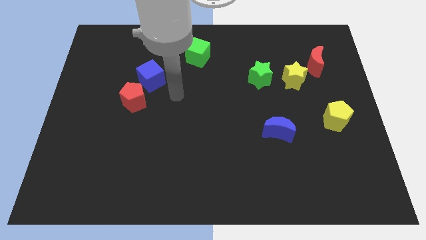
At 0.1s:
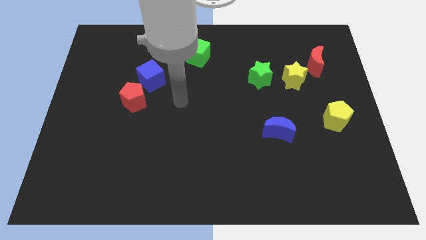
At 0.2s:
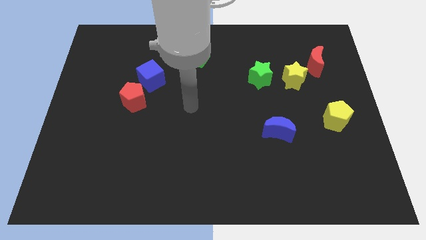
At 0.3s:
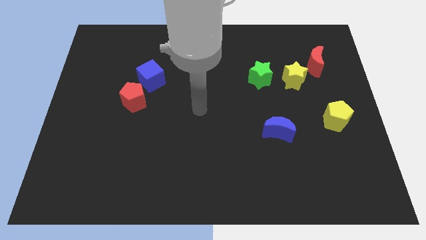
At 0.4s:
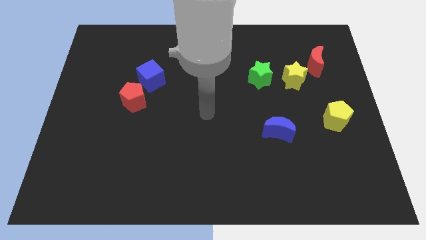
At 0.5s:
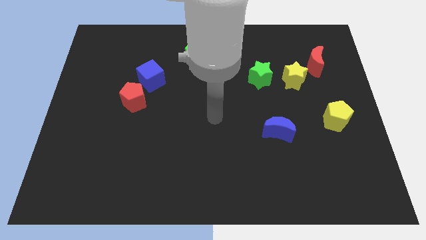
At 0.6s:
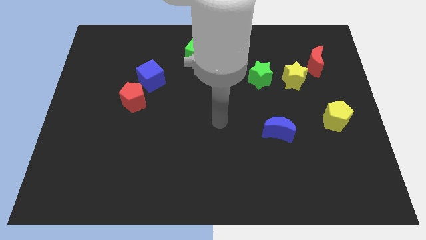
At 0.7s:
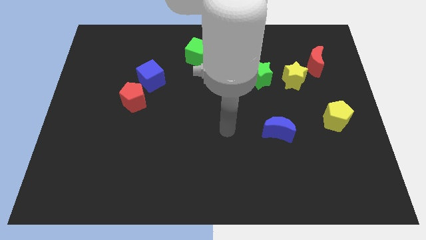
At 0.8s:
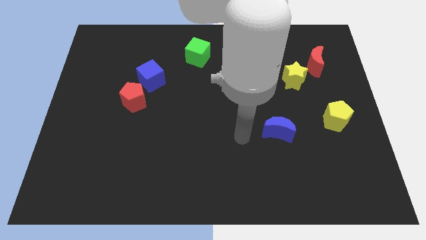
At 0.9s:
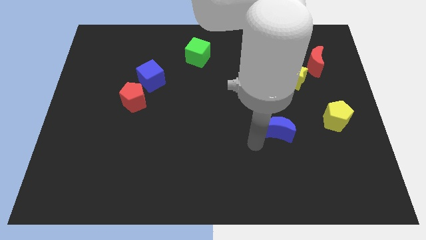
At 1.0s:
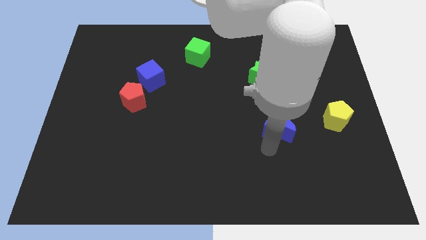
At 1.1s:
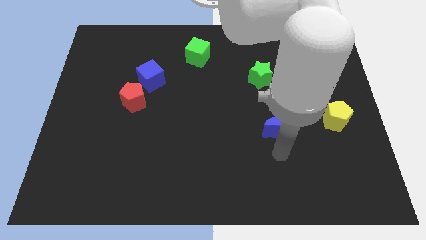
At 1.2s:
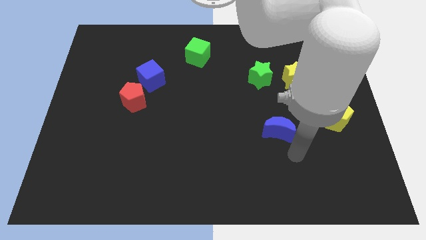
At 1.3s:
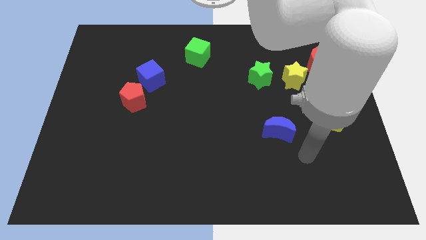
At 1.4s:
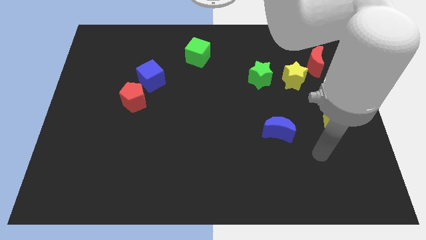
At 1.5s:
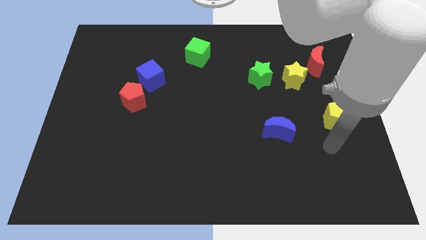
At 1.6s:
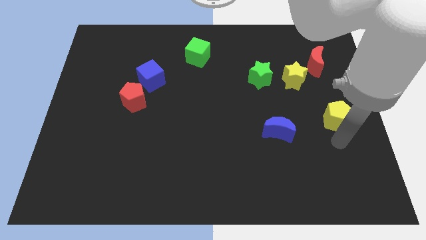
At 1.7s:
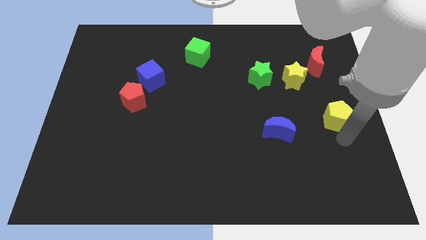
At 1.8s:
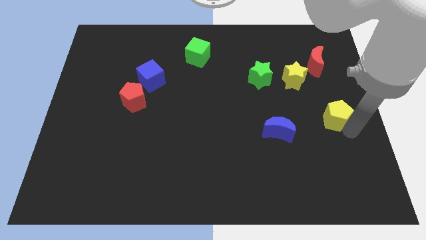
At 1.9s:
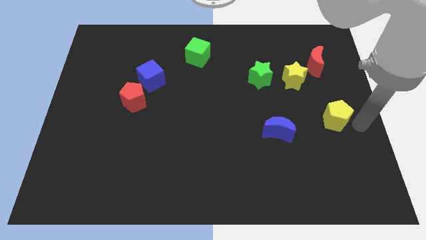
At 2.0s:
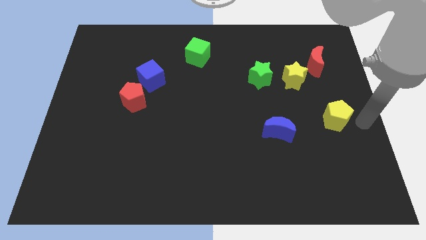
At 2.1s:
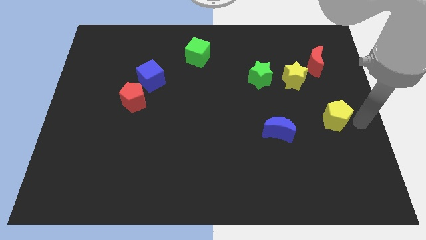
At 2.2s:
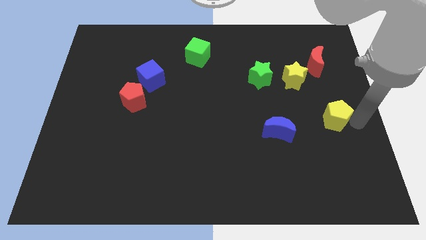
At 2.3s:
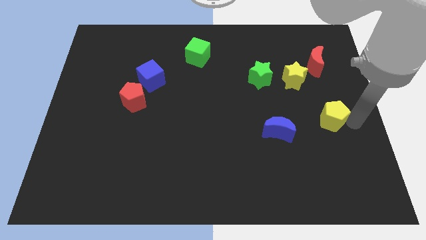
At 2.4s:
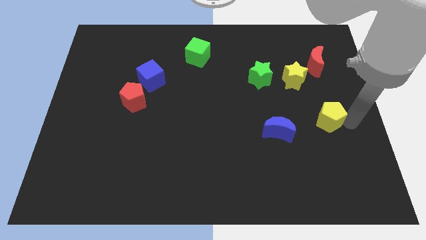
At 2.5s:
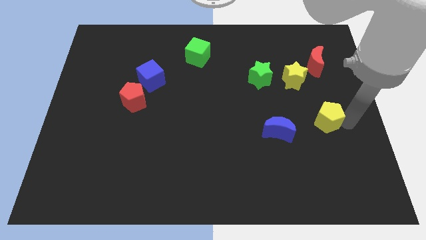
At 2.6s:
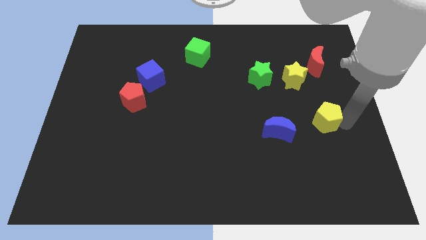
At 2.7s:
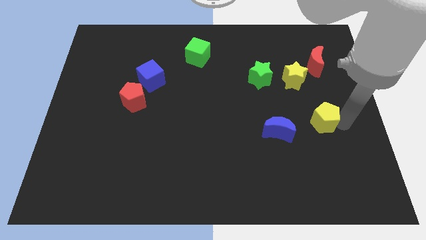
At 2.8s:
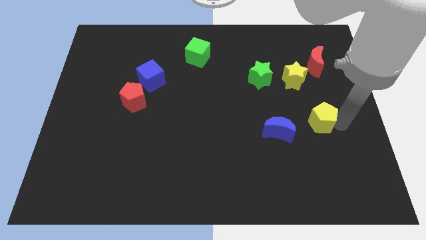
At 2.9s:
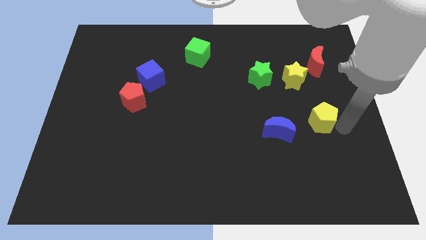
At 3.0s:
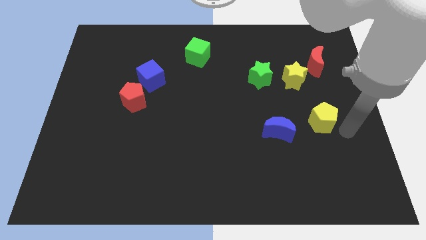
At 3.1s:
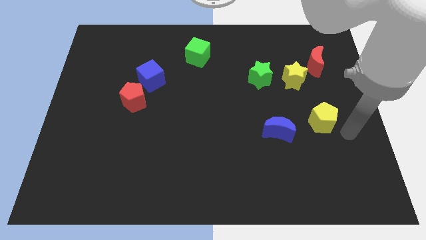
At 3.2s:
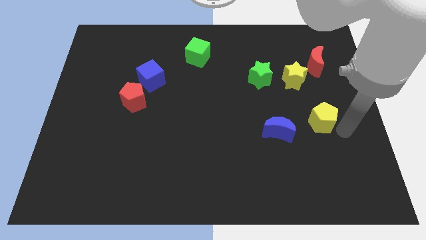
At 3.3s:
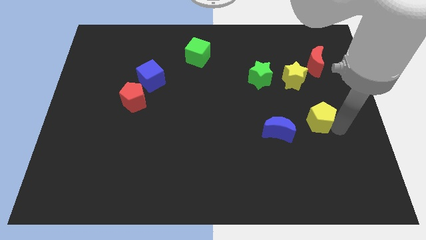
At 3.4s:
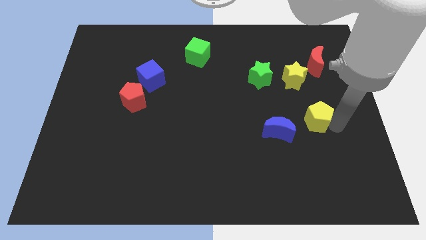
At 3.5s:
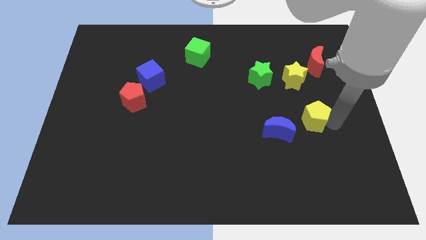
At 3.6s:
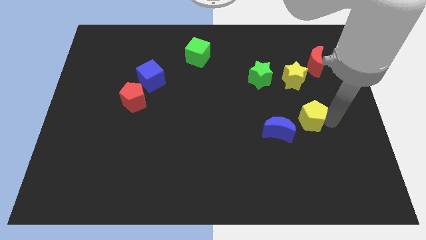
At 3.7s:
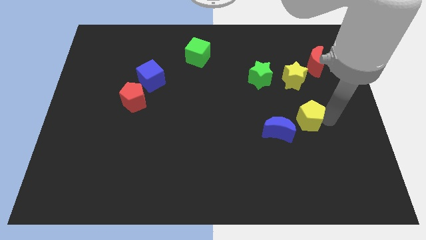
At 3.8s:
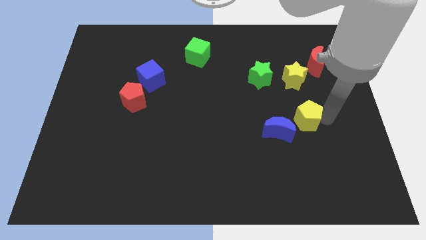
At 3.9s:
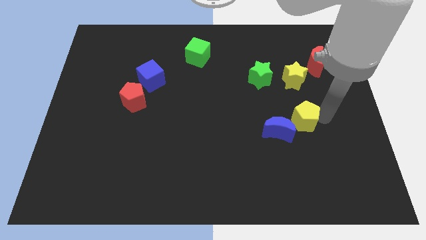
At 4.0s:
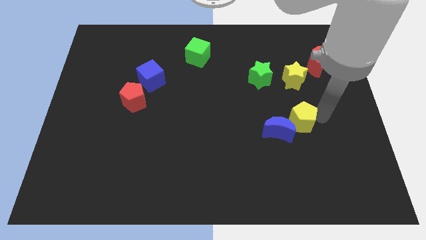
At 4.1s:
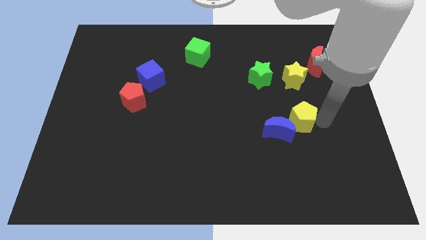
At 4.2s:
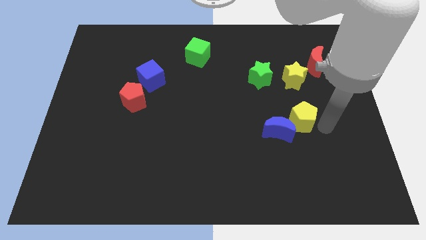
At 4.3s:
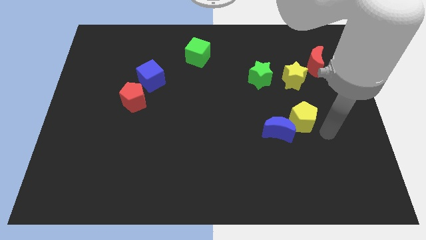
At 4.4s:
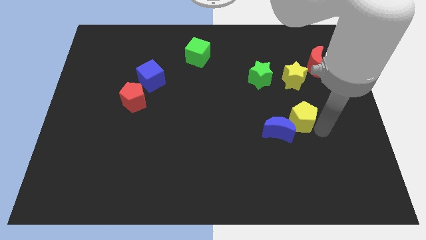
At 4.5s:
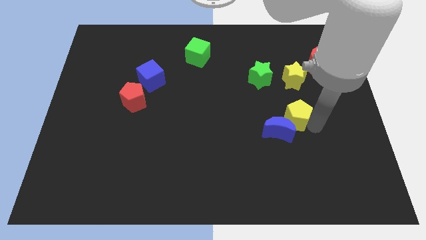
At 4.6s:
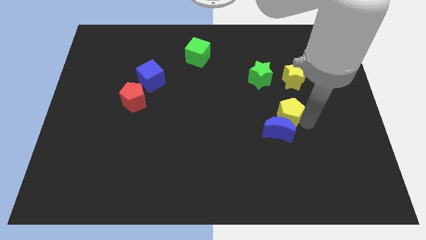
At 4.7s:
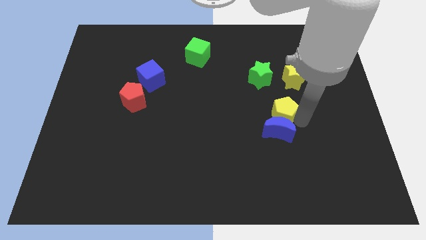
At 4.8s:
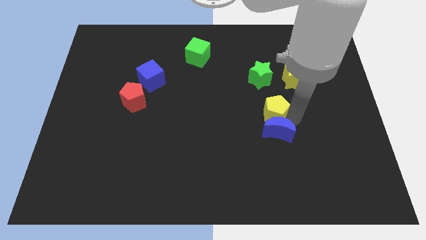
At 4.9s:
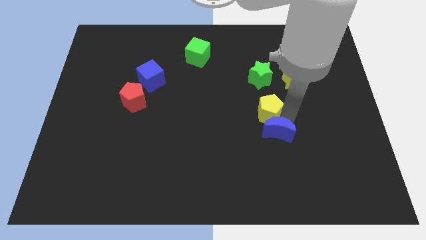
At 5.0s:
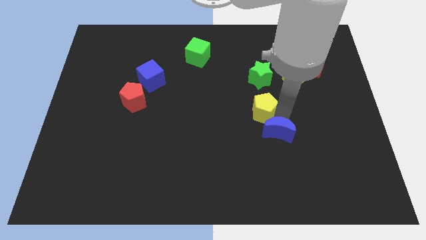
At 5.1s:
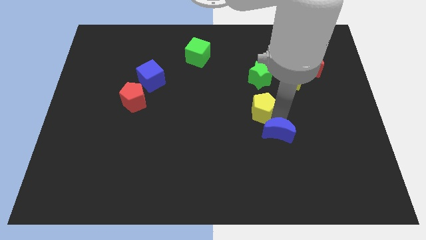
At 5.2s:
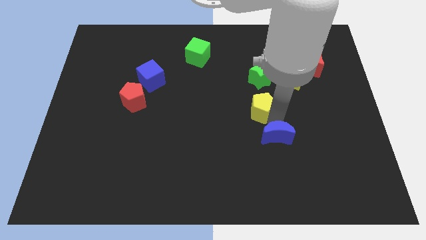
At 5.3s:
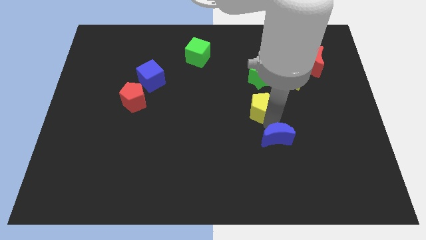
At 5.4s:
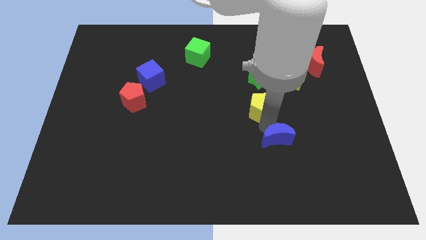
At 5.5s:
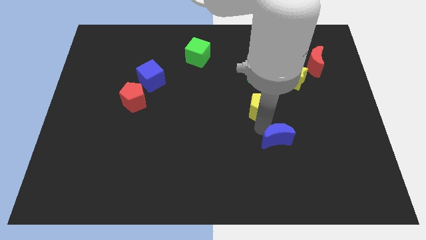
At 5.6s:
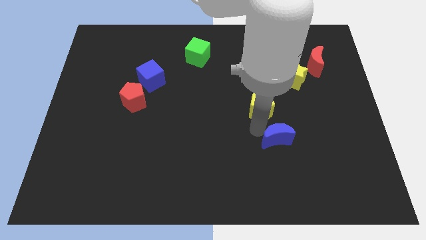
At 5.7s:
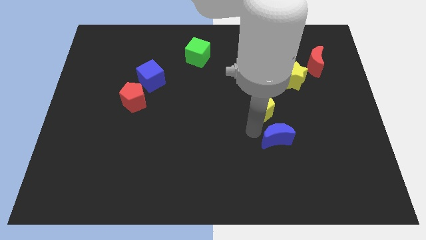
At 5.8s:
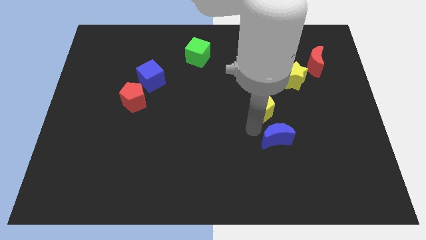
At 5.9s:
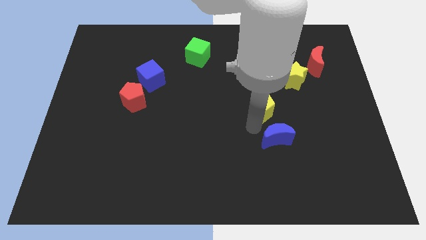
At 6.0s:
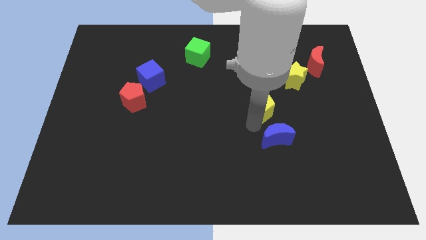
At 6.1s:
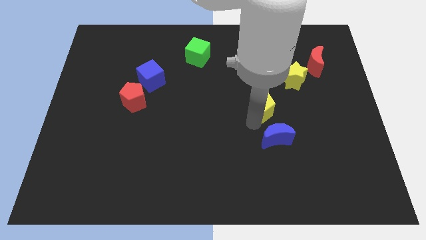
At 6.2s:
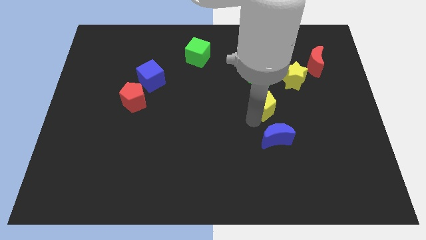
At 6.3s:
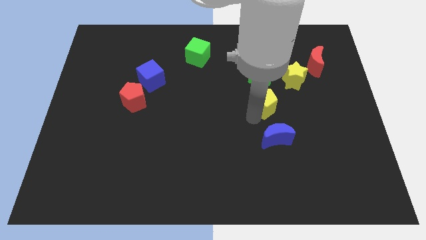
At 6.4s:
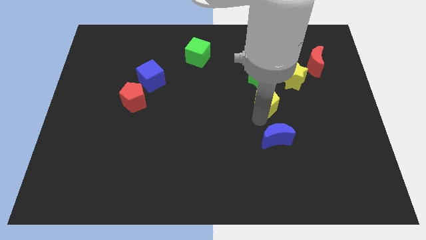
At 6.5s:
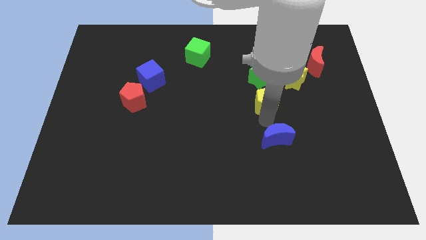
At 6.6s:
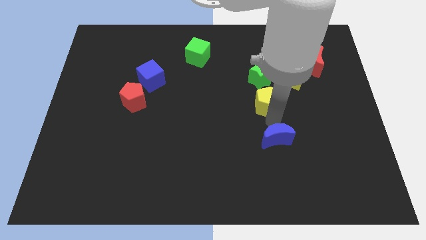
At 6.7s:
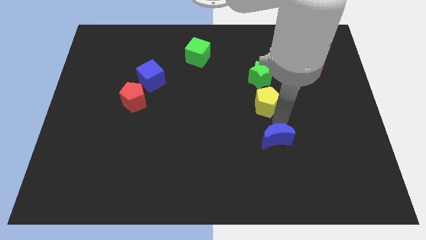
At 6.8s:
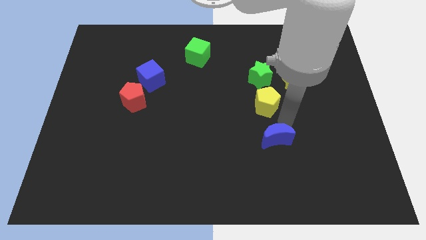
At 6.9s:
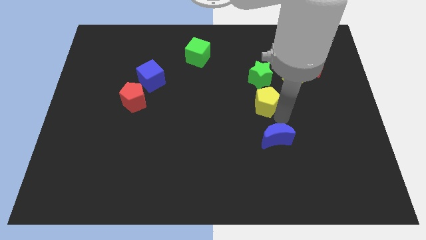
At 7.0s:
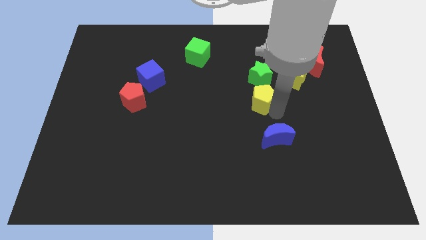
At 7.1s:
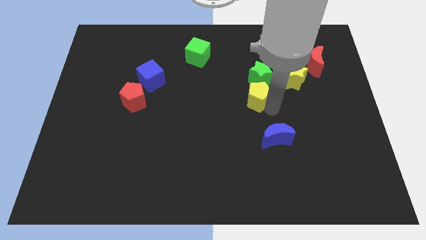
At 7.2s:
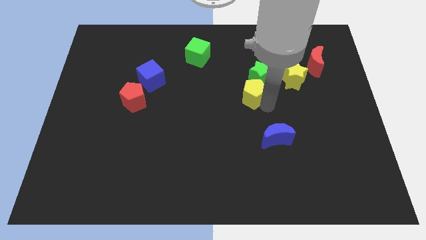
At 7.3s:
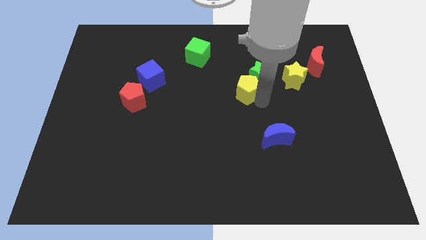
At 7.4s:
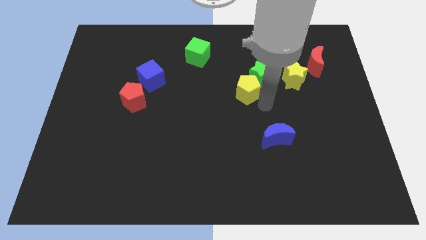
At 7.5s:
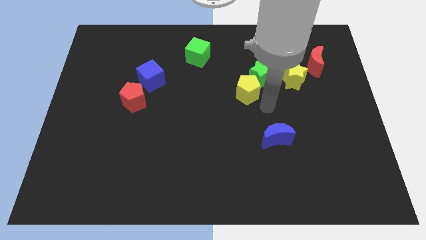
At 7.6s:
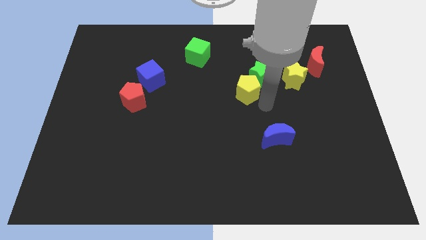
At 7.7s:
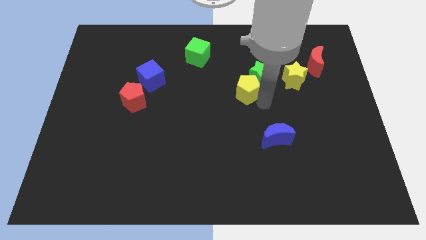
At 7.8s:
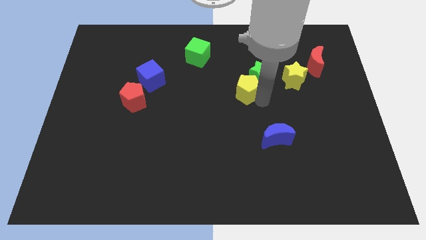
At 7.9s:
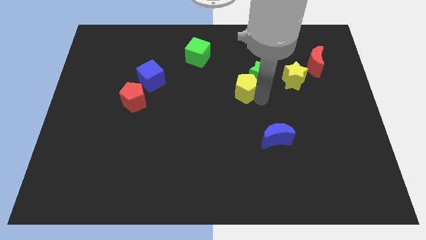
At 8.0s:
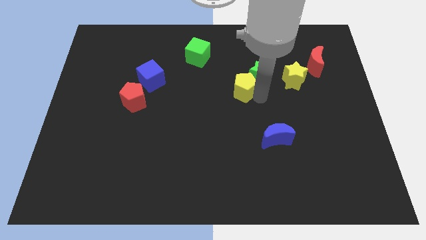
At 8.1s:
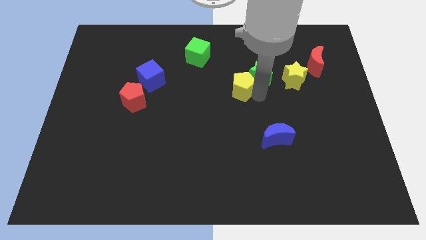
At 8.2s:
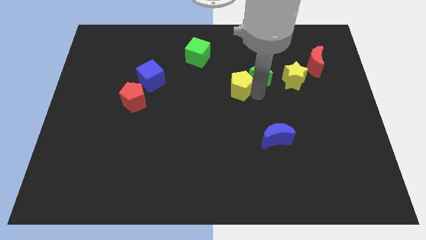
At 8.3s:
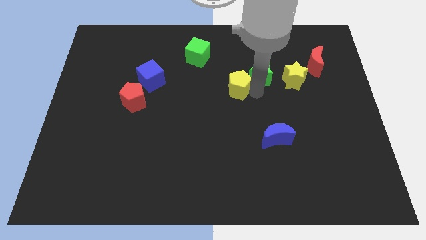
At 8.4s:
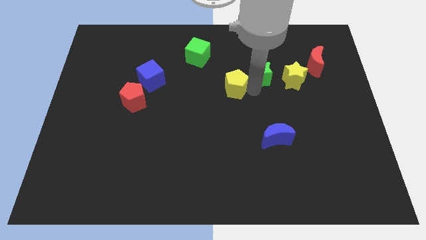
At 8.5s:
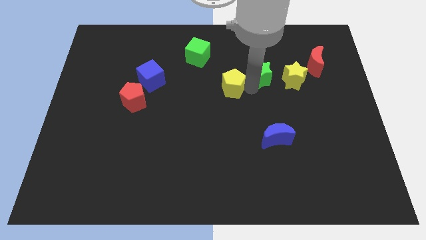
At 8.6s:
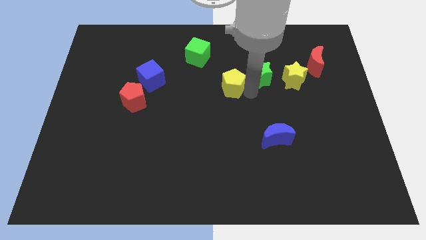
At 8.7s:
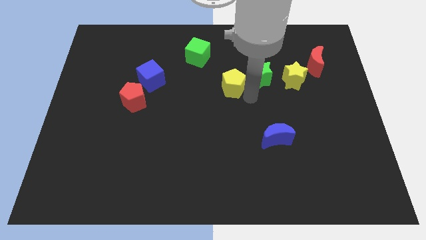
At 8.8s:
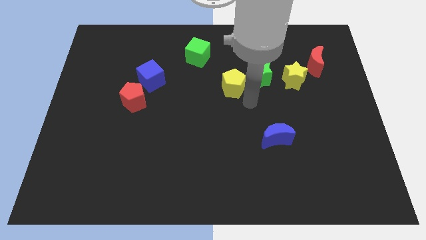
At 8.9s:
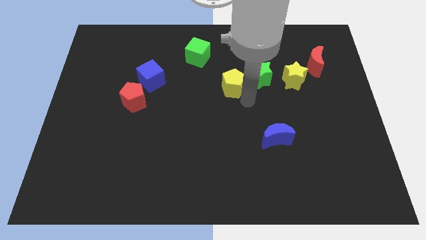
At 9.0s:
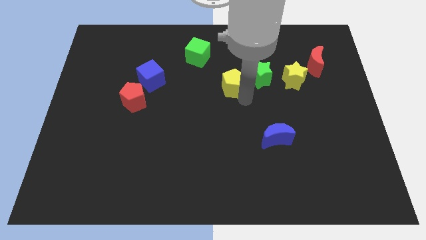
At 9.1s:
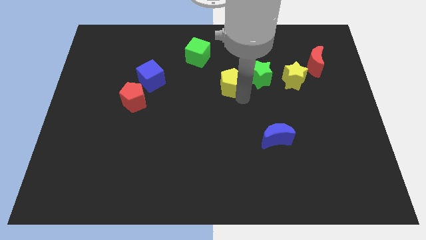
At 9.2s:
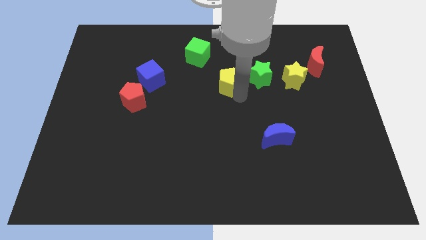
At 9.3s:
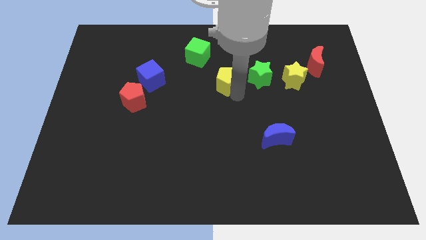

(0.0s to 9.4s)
put the yellow pentagon diagonally down and to the right of the green cube
